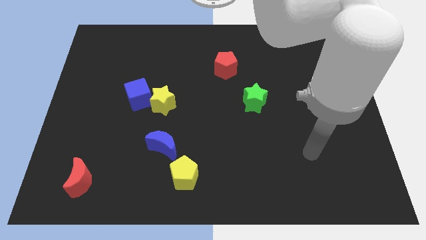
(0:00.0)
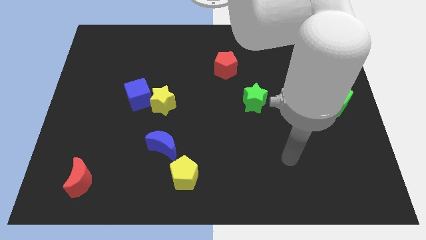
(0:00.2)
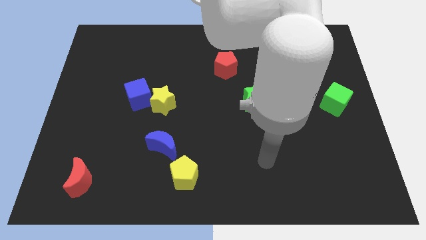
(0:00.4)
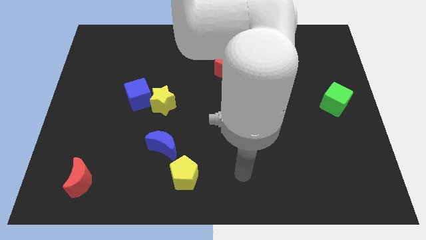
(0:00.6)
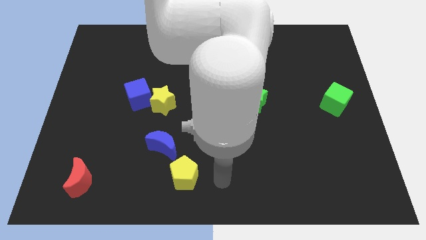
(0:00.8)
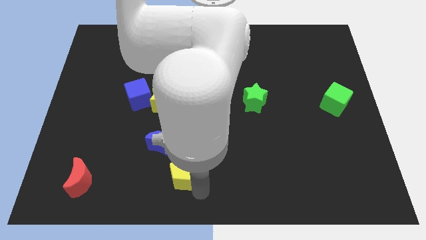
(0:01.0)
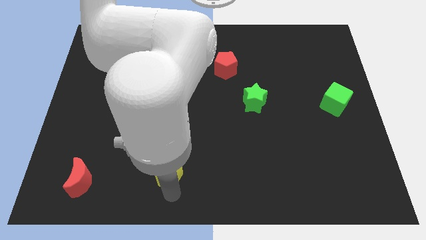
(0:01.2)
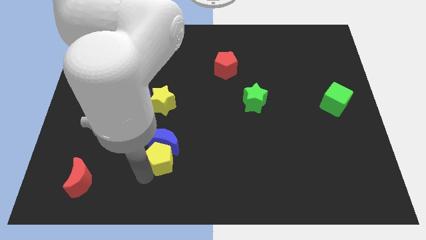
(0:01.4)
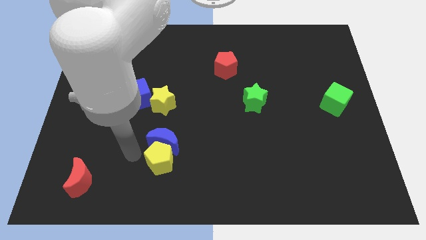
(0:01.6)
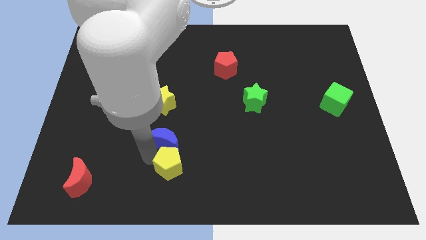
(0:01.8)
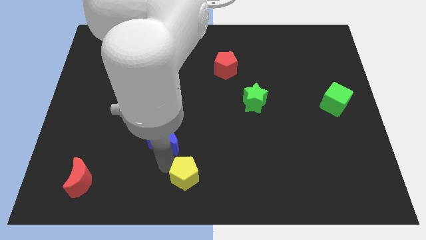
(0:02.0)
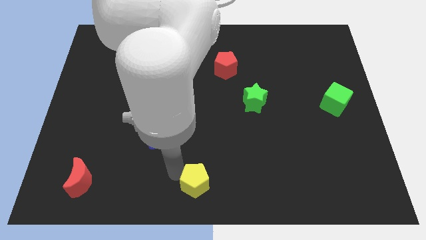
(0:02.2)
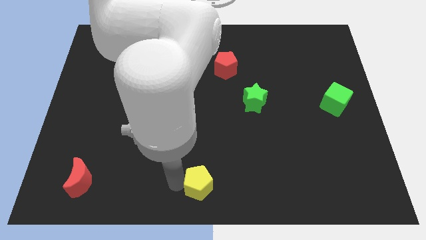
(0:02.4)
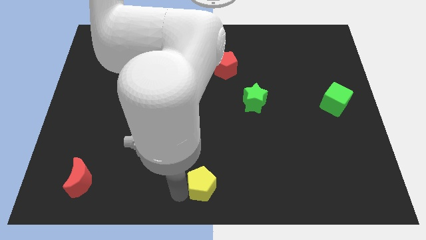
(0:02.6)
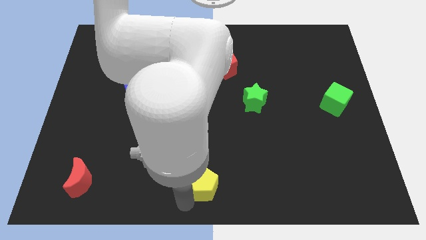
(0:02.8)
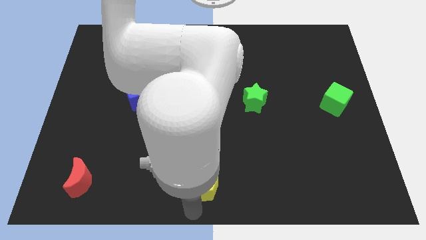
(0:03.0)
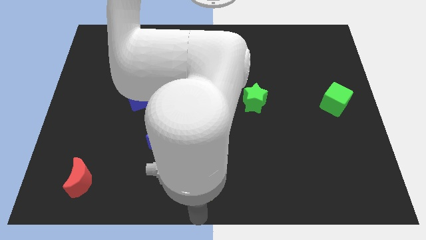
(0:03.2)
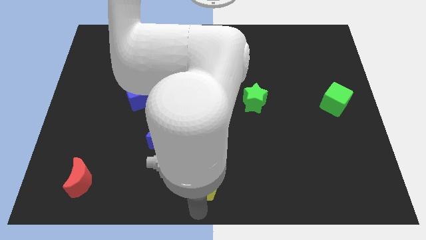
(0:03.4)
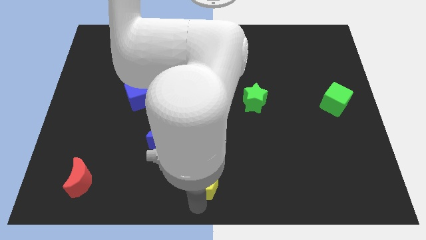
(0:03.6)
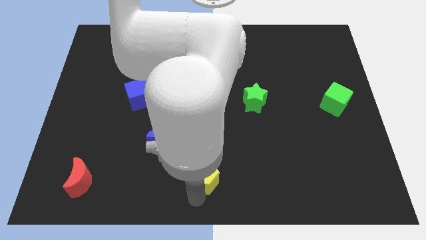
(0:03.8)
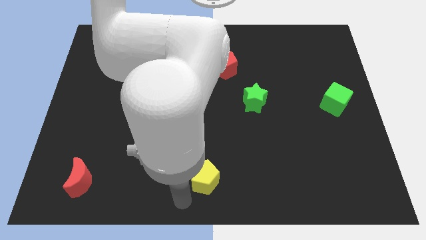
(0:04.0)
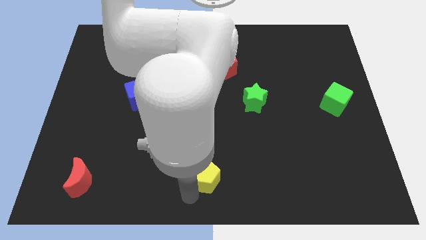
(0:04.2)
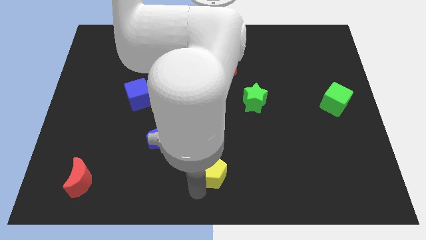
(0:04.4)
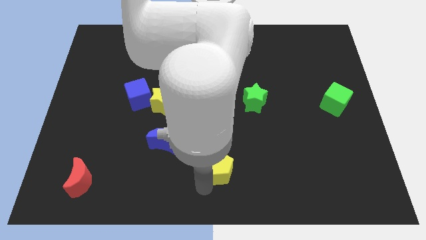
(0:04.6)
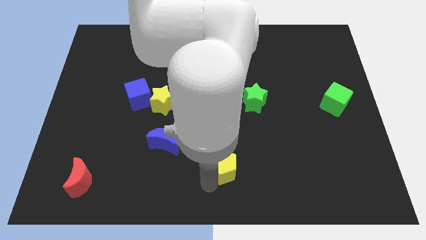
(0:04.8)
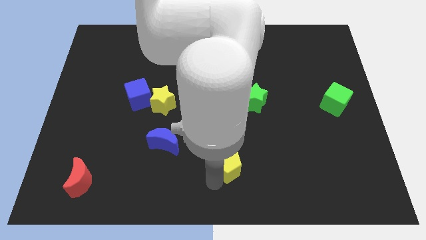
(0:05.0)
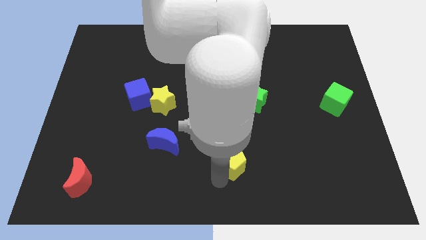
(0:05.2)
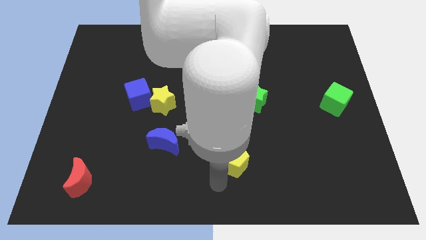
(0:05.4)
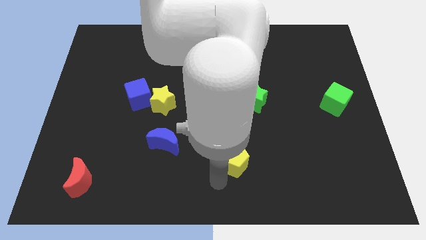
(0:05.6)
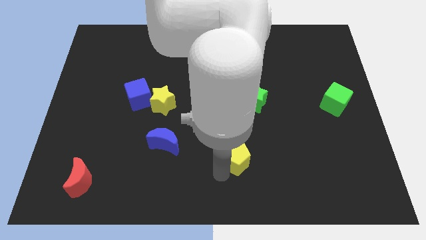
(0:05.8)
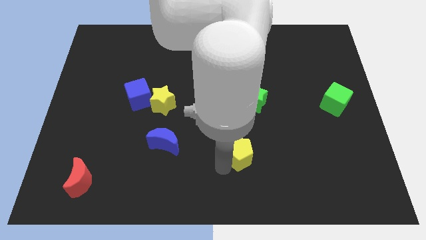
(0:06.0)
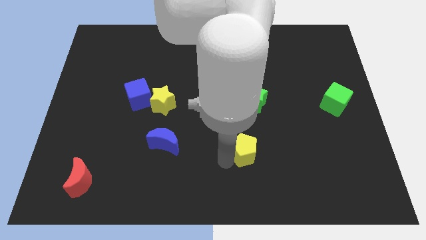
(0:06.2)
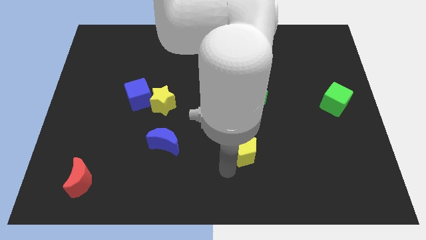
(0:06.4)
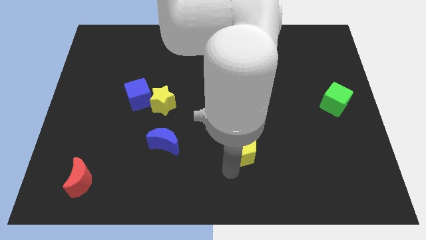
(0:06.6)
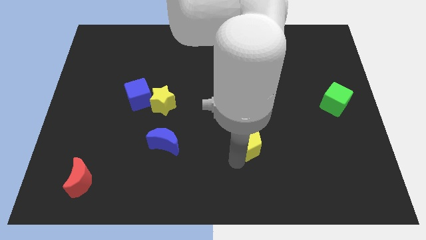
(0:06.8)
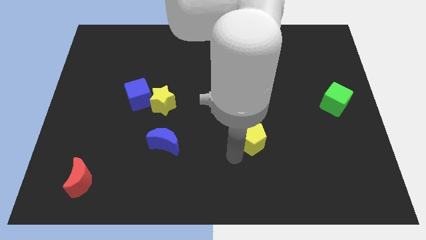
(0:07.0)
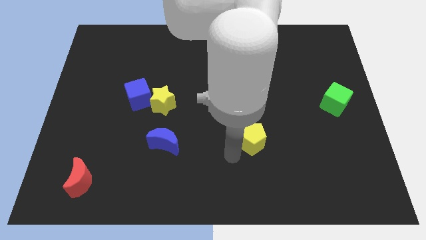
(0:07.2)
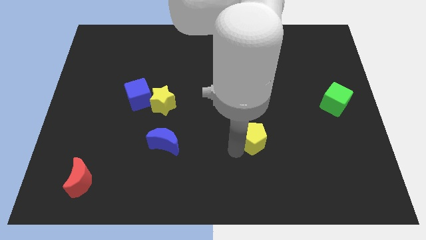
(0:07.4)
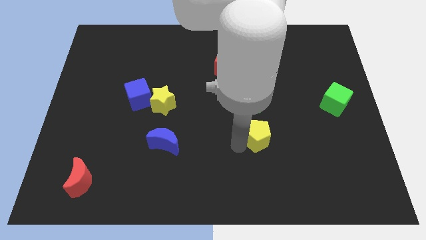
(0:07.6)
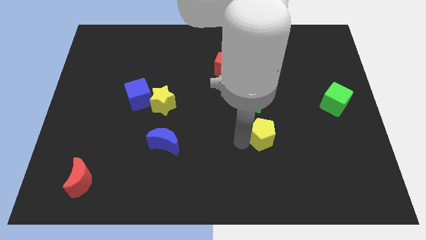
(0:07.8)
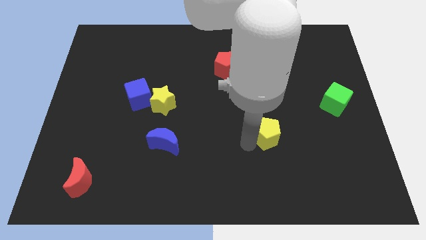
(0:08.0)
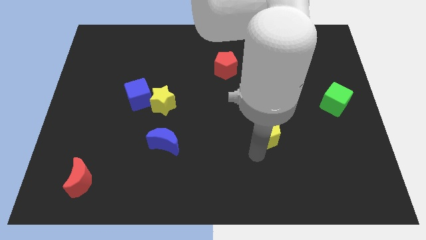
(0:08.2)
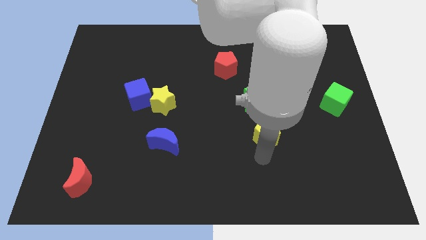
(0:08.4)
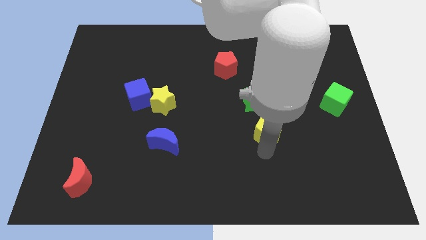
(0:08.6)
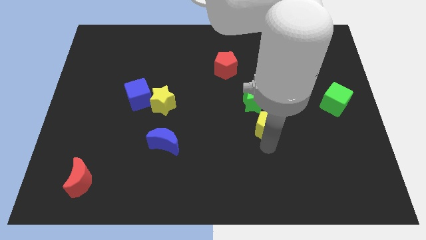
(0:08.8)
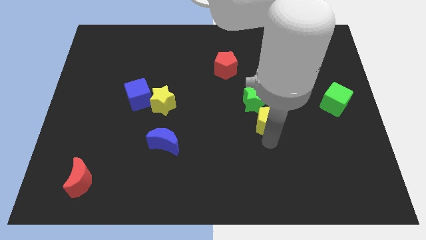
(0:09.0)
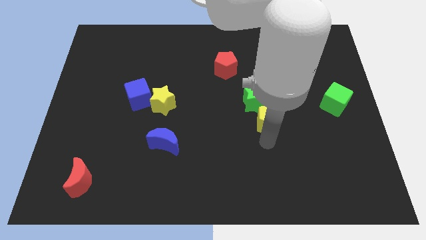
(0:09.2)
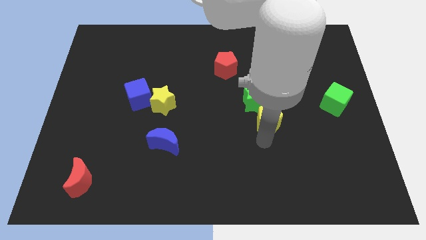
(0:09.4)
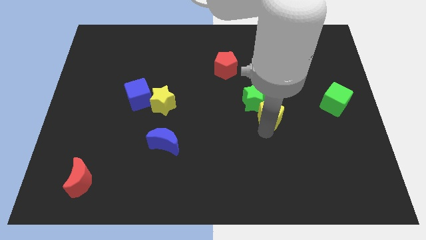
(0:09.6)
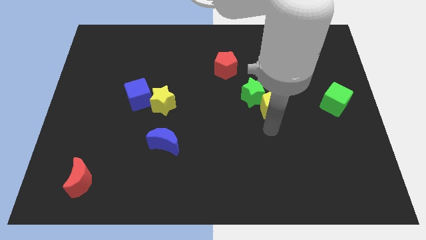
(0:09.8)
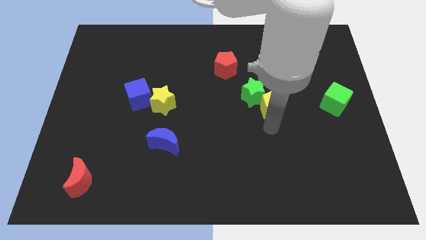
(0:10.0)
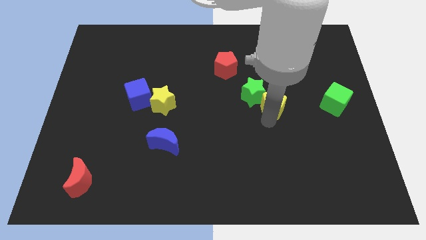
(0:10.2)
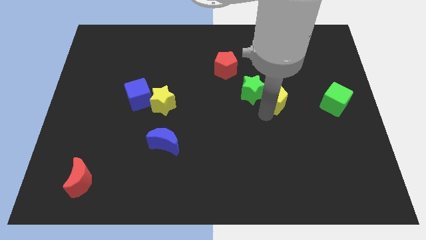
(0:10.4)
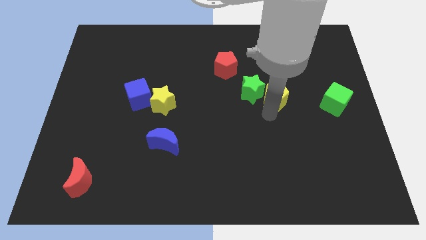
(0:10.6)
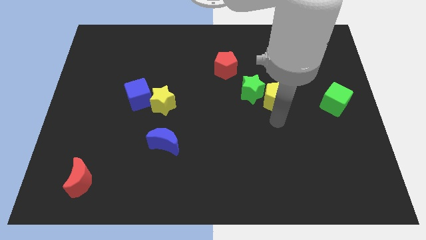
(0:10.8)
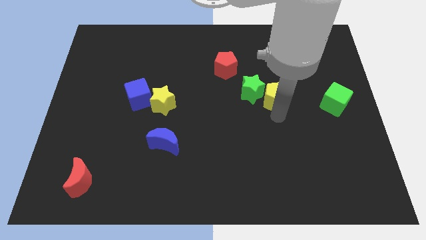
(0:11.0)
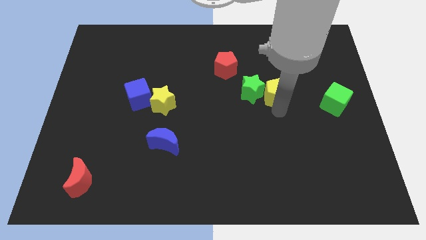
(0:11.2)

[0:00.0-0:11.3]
slide the yellow pentagon to the top right side of the green star

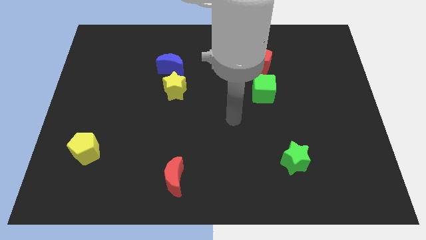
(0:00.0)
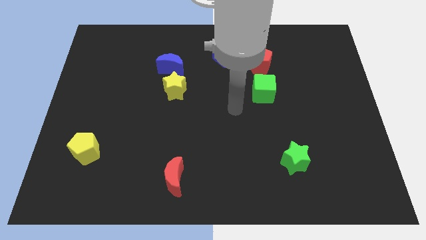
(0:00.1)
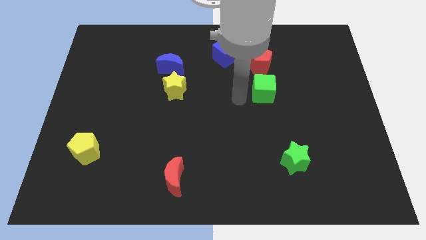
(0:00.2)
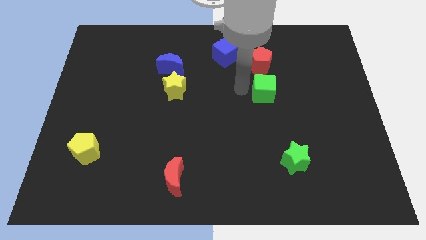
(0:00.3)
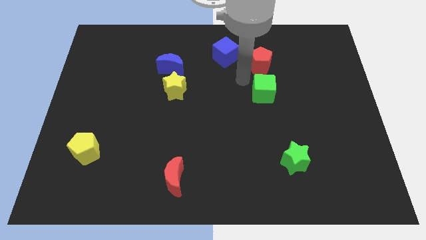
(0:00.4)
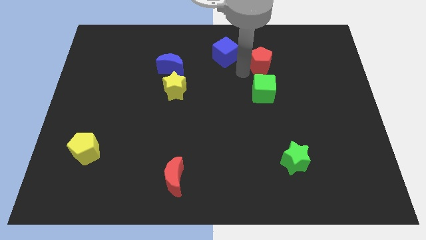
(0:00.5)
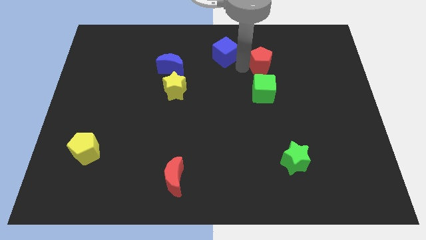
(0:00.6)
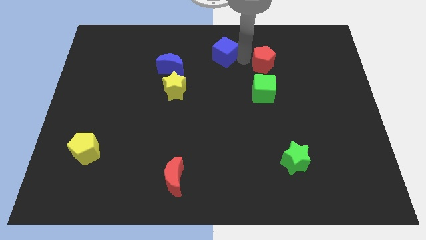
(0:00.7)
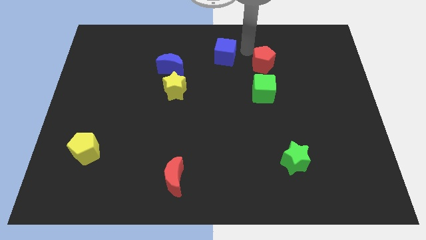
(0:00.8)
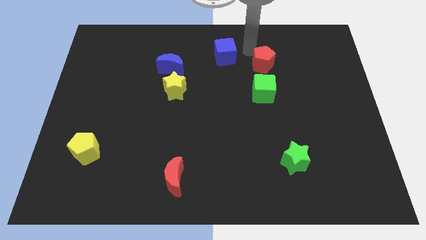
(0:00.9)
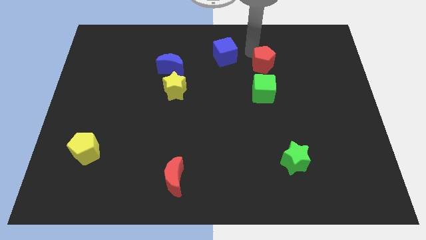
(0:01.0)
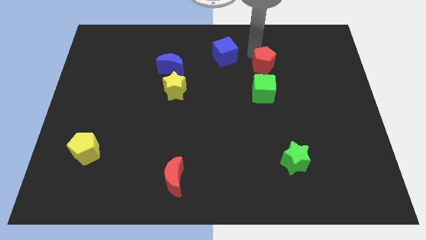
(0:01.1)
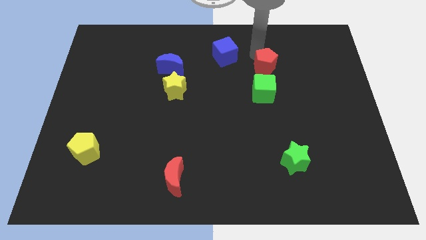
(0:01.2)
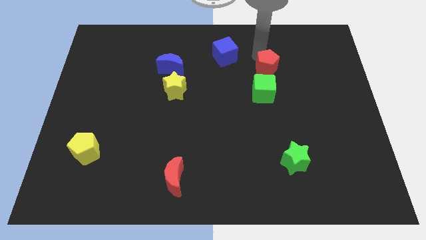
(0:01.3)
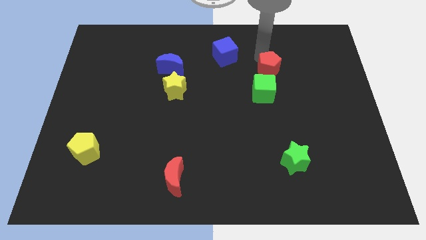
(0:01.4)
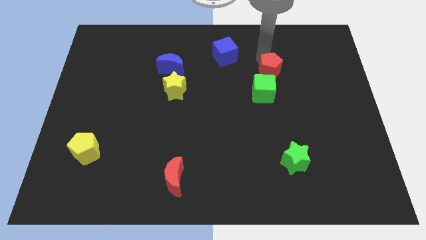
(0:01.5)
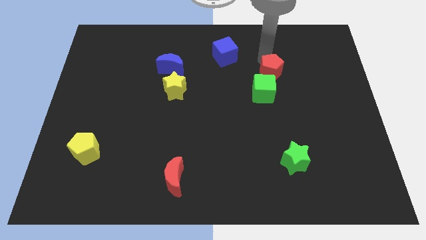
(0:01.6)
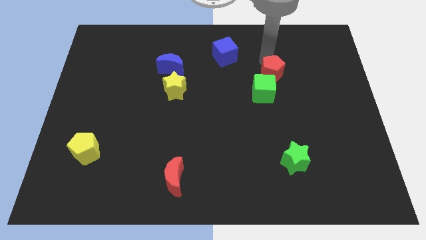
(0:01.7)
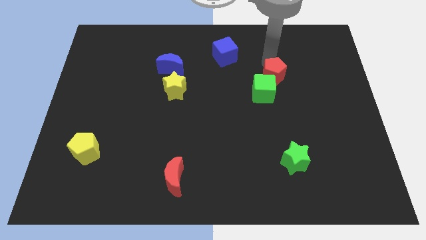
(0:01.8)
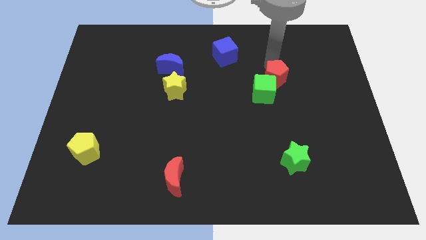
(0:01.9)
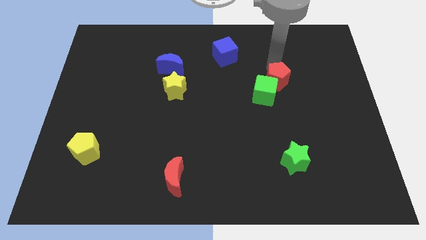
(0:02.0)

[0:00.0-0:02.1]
move the red pentagon right of the green cube
